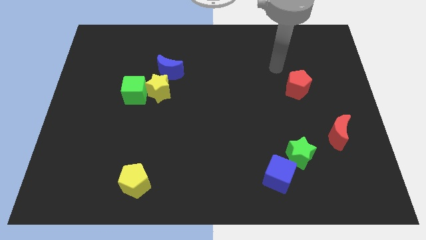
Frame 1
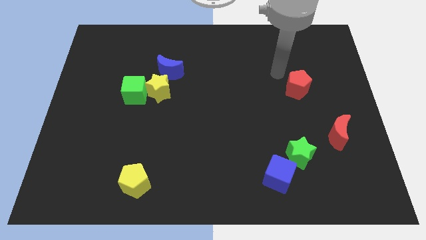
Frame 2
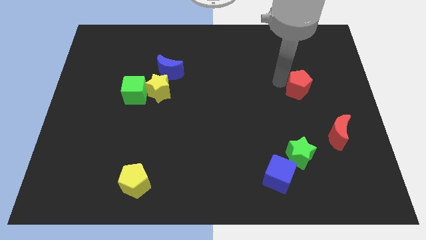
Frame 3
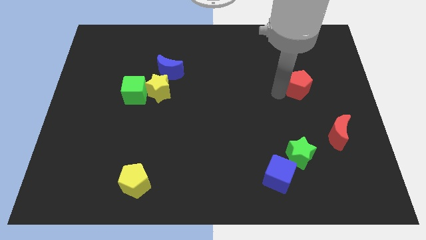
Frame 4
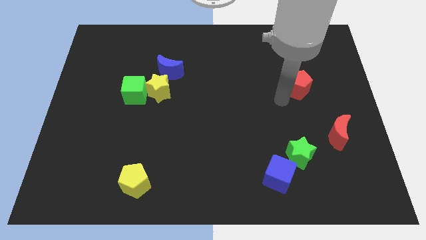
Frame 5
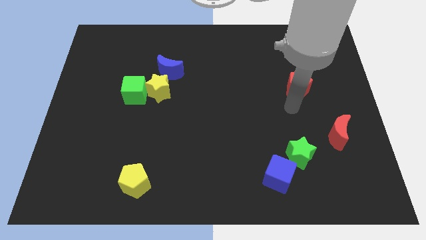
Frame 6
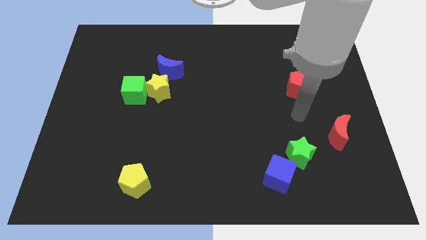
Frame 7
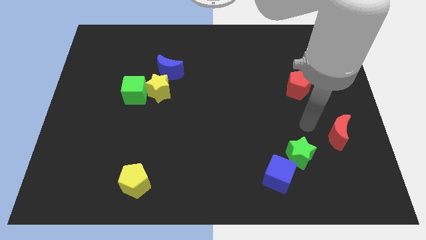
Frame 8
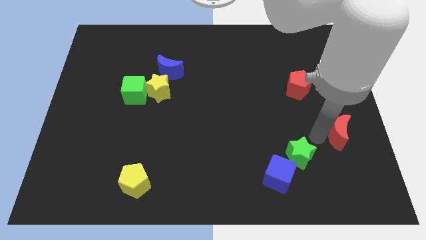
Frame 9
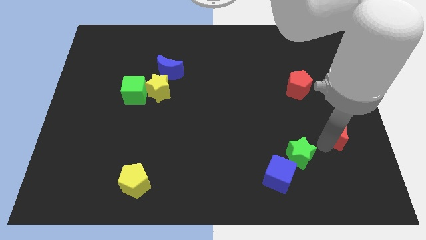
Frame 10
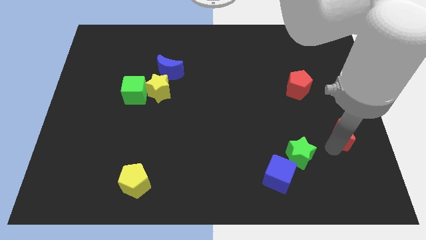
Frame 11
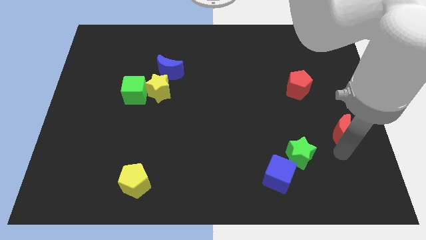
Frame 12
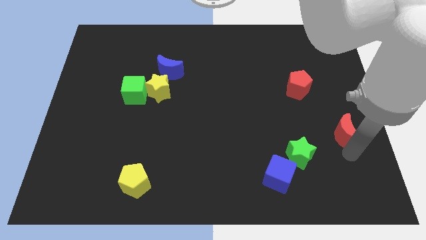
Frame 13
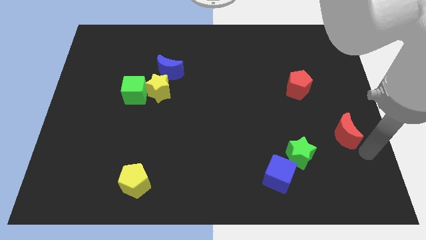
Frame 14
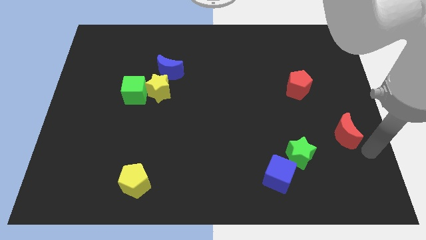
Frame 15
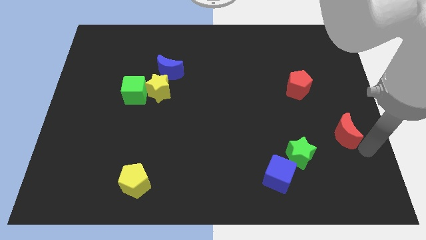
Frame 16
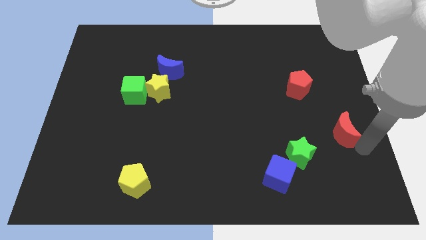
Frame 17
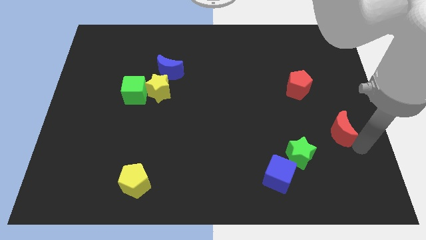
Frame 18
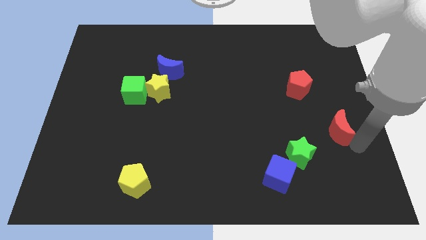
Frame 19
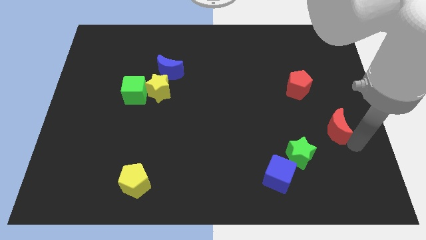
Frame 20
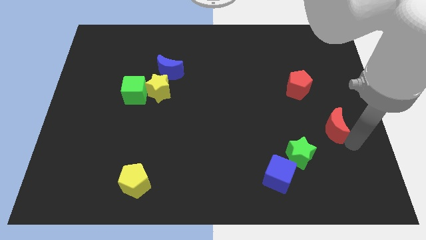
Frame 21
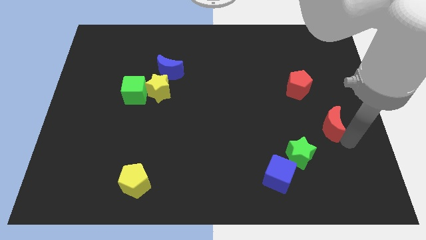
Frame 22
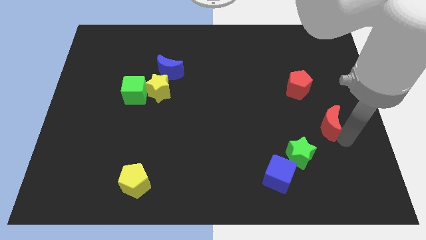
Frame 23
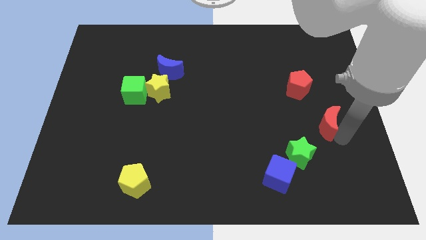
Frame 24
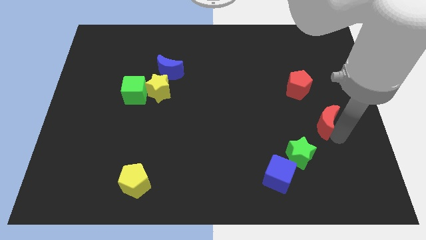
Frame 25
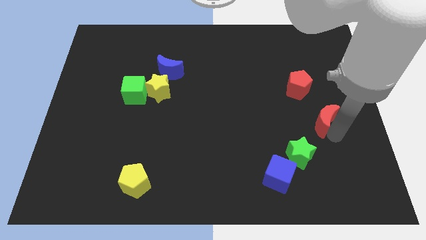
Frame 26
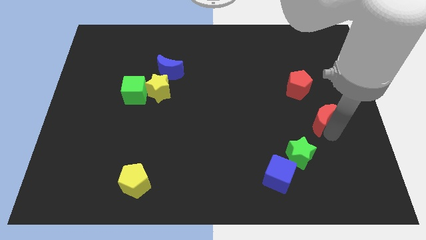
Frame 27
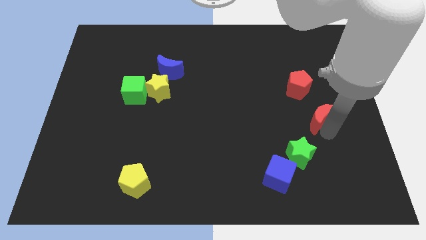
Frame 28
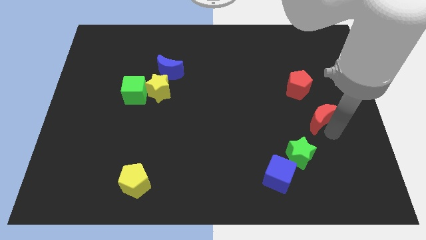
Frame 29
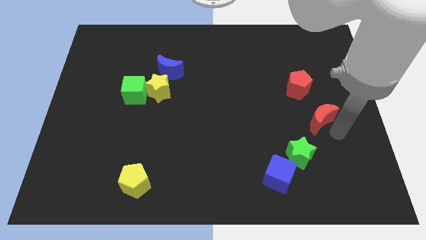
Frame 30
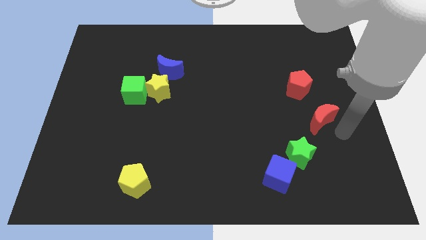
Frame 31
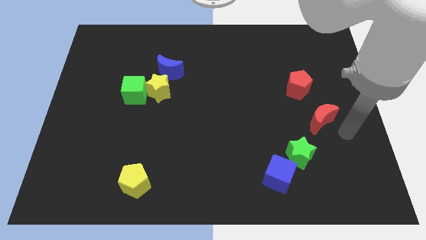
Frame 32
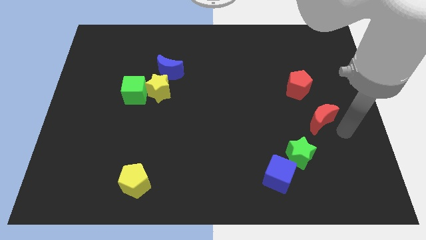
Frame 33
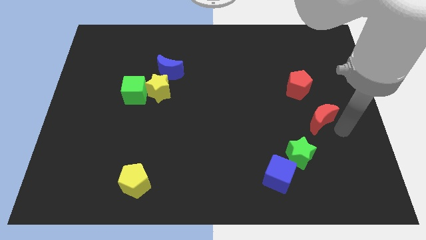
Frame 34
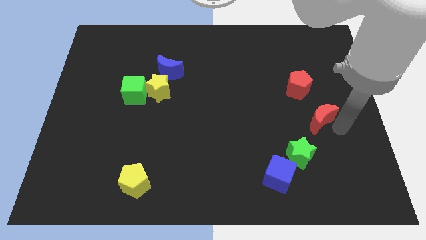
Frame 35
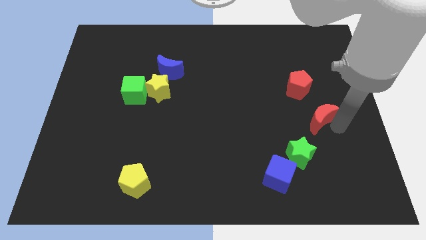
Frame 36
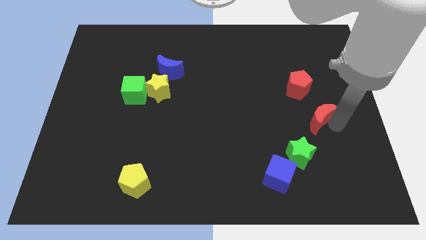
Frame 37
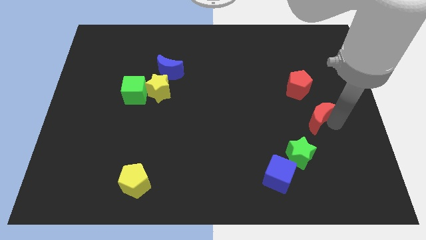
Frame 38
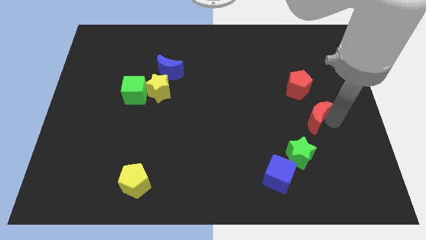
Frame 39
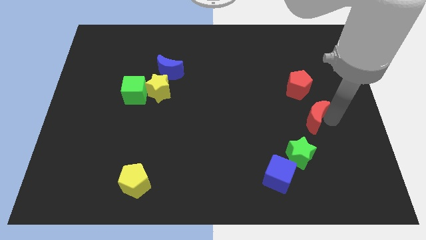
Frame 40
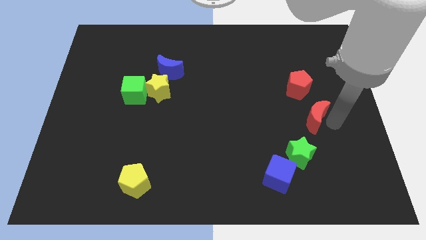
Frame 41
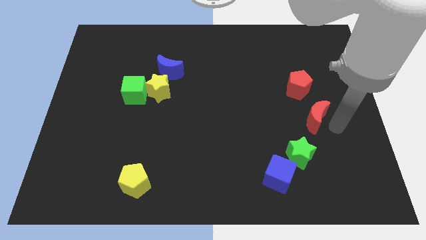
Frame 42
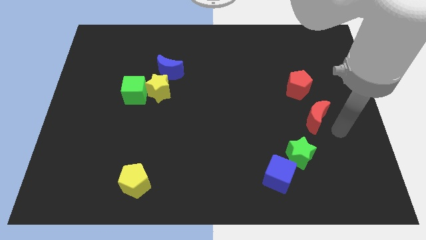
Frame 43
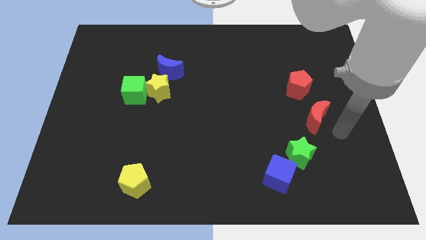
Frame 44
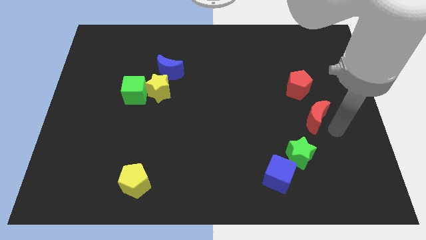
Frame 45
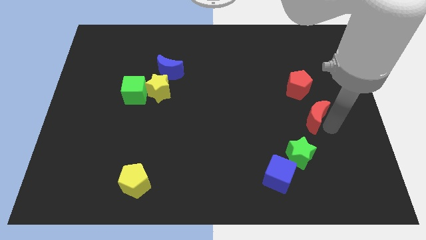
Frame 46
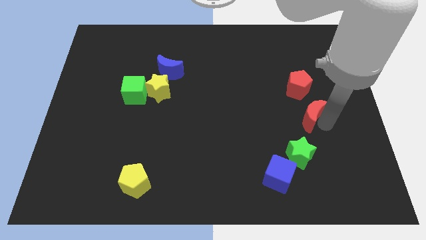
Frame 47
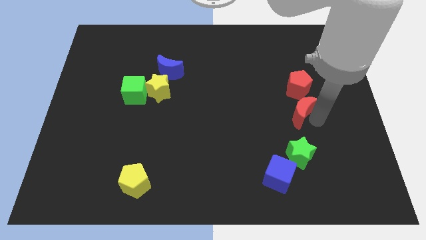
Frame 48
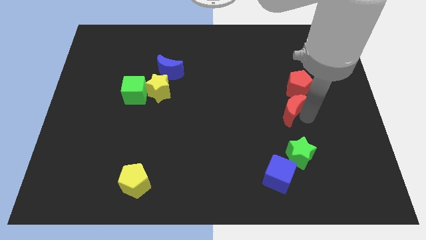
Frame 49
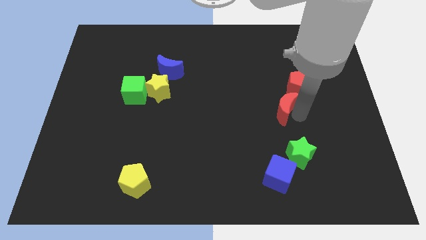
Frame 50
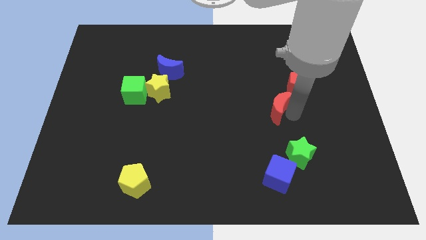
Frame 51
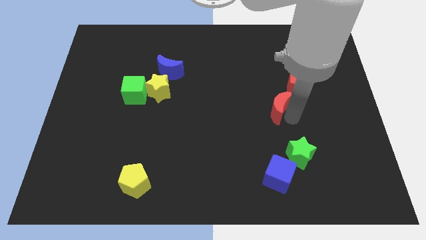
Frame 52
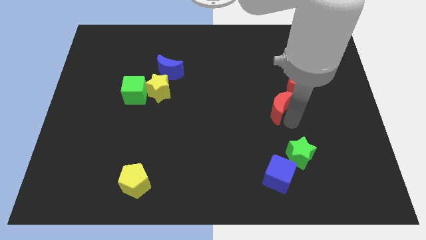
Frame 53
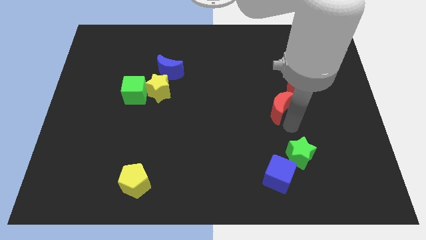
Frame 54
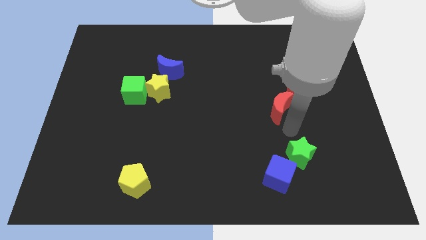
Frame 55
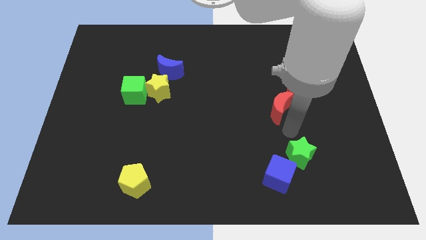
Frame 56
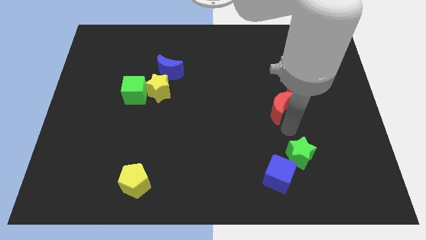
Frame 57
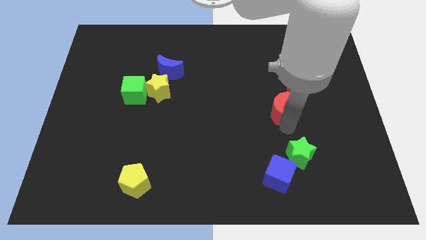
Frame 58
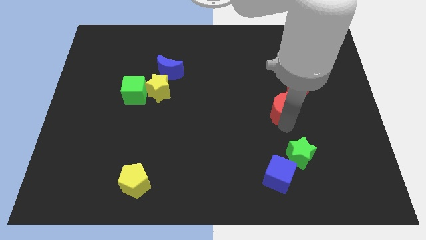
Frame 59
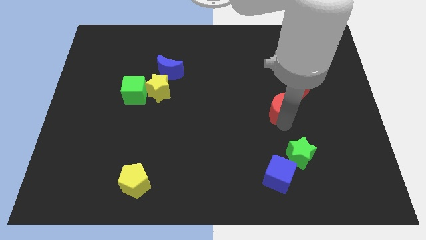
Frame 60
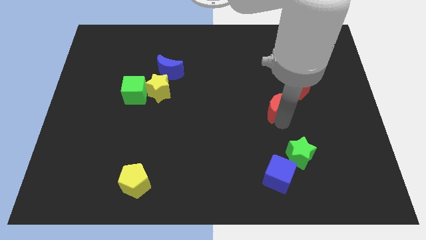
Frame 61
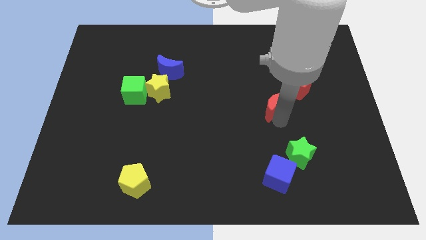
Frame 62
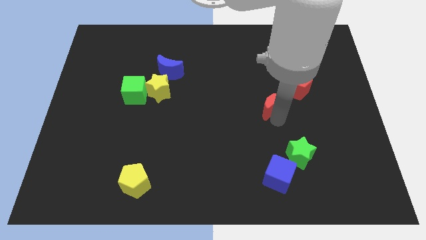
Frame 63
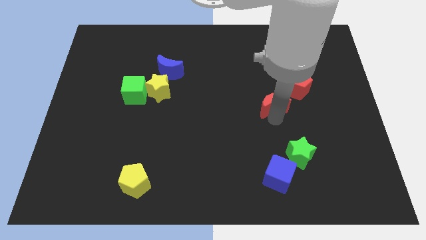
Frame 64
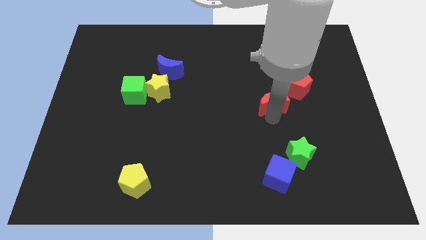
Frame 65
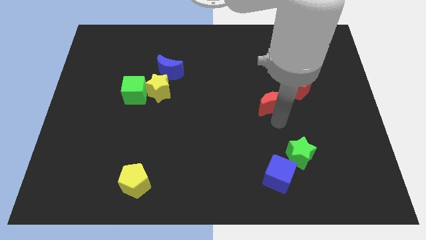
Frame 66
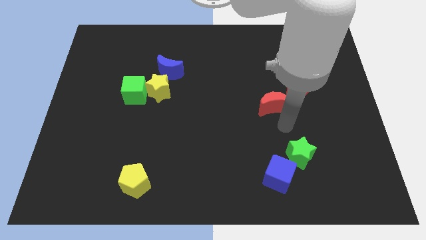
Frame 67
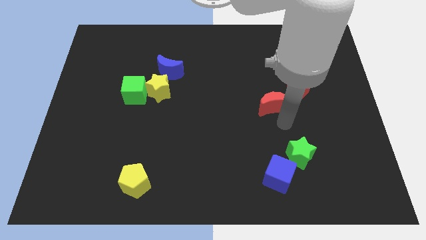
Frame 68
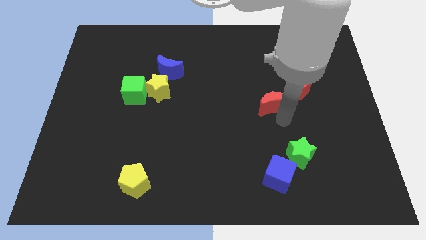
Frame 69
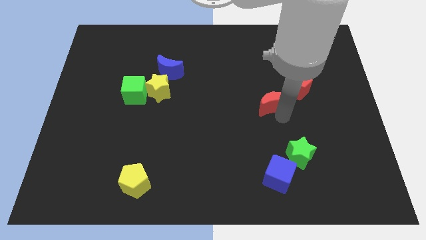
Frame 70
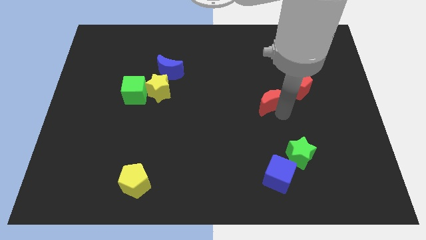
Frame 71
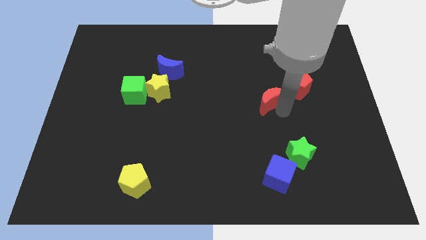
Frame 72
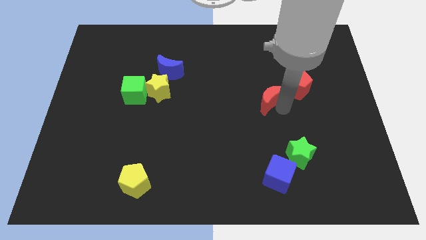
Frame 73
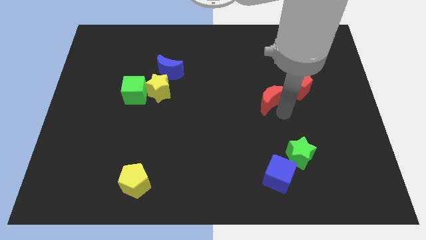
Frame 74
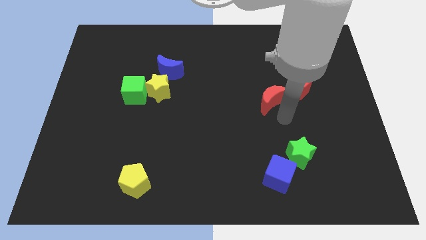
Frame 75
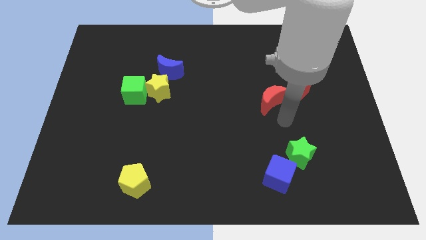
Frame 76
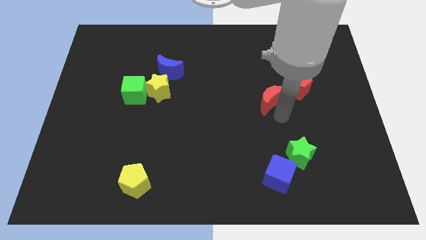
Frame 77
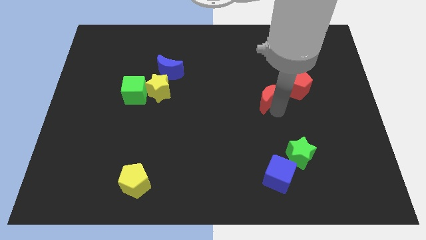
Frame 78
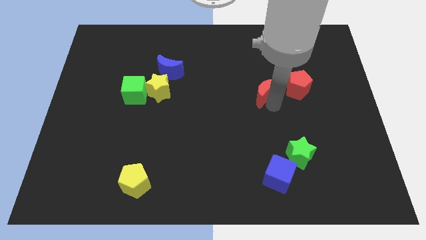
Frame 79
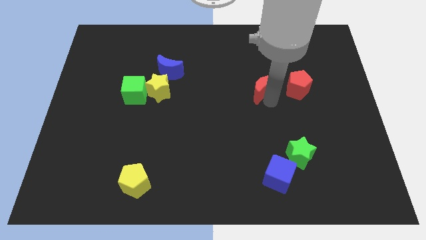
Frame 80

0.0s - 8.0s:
slide the red moon diagonally up and left
